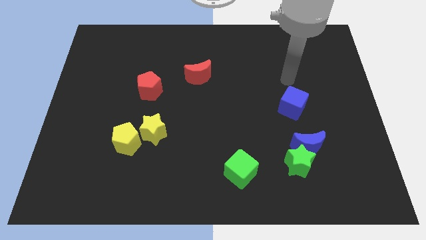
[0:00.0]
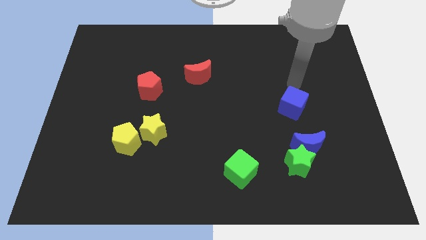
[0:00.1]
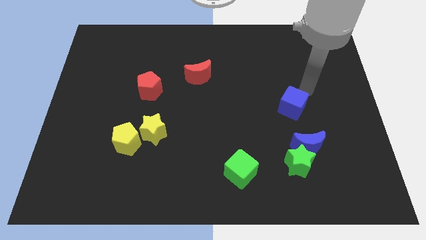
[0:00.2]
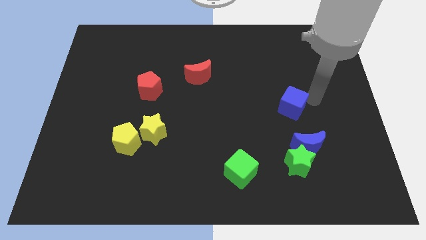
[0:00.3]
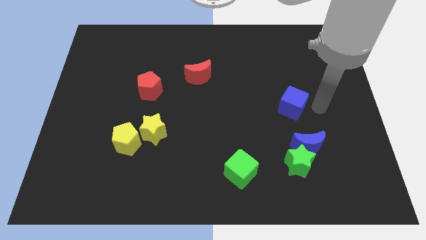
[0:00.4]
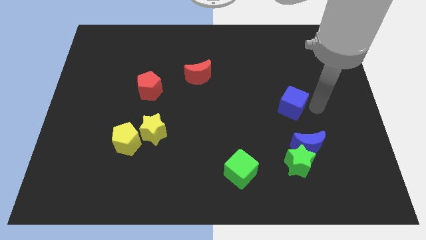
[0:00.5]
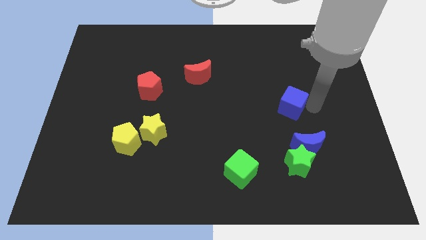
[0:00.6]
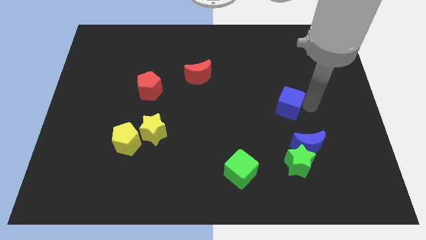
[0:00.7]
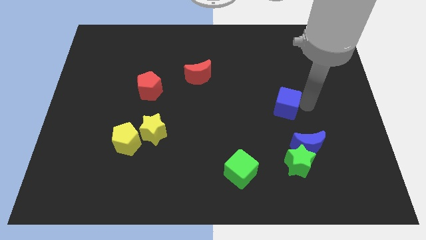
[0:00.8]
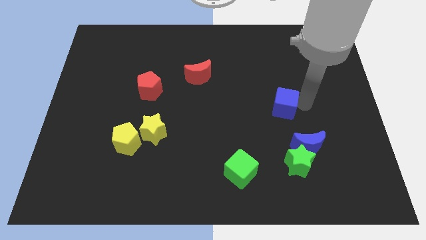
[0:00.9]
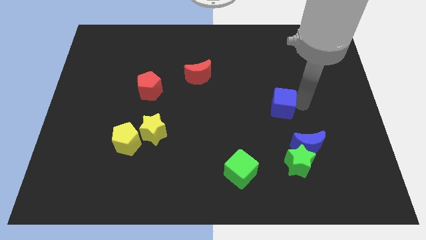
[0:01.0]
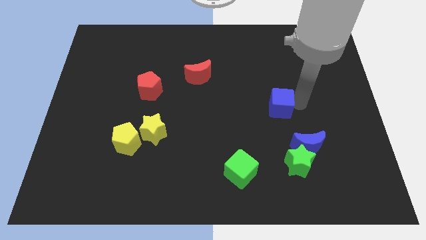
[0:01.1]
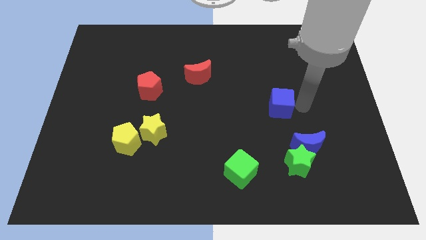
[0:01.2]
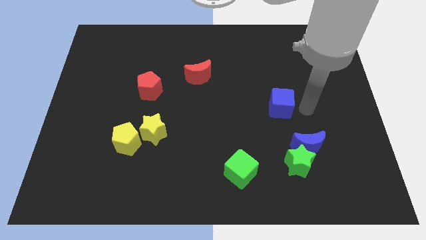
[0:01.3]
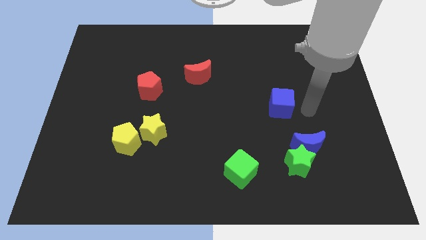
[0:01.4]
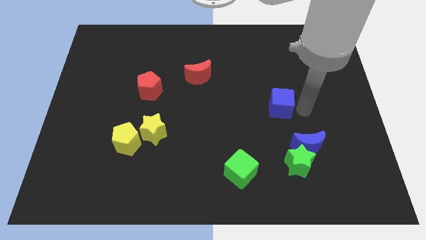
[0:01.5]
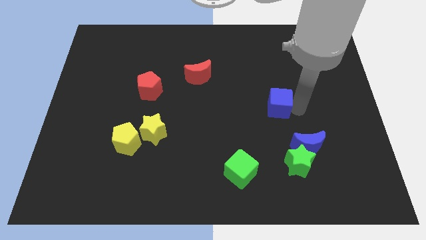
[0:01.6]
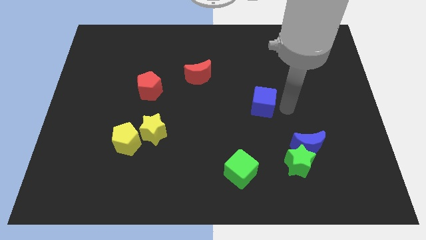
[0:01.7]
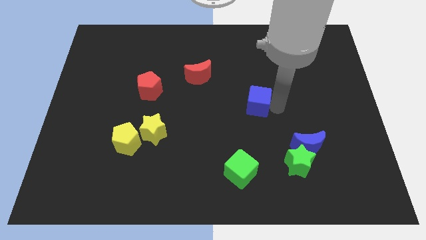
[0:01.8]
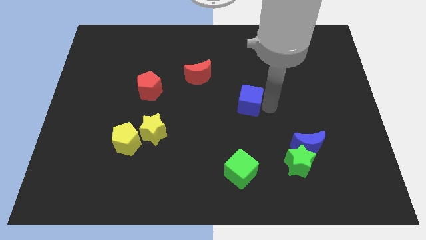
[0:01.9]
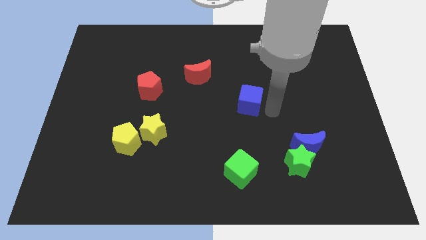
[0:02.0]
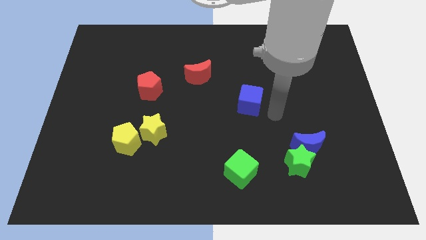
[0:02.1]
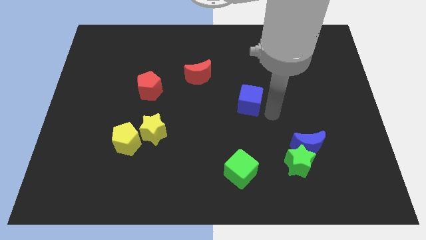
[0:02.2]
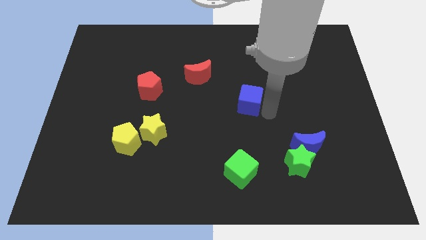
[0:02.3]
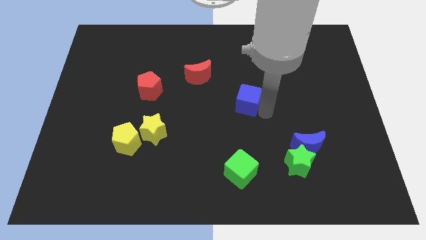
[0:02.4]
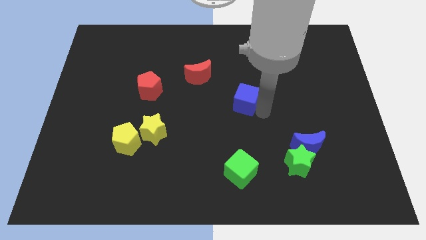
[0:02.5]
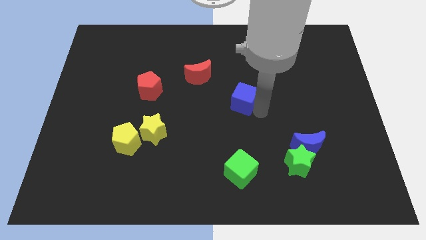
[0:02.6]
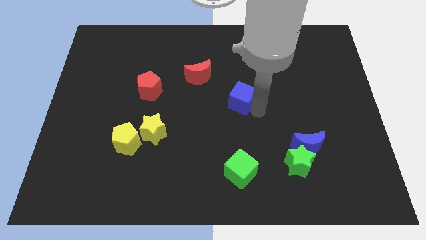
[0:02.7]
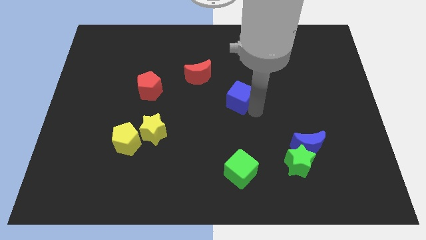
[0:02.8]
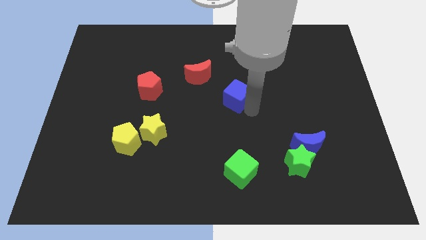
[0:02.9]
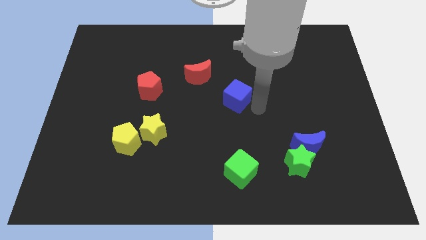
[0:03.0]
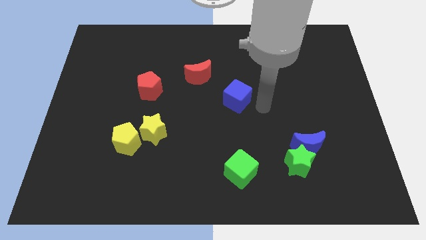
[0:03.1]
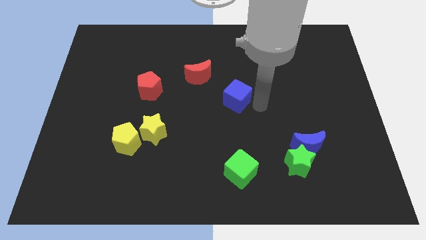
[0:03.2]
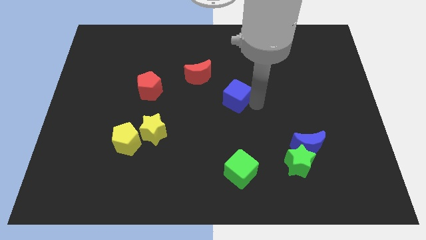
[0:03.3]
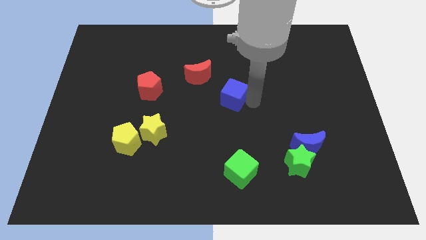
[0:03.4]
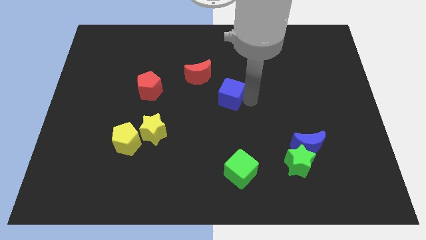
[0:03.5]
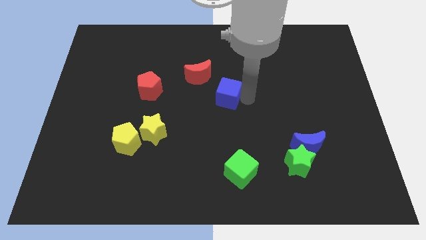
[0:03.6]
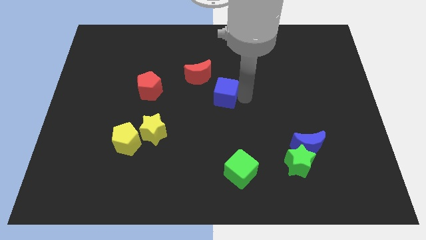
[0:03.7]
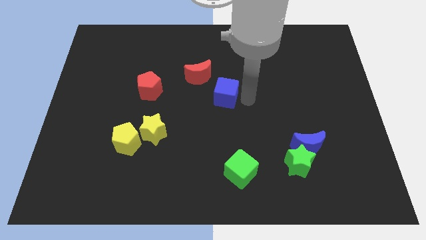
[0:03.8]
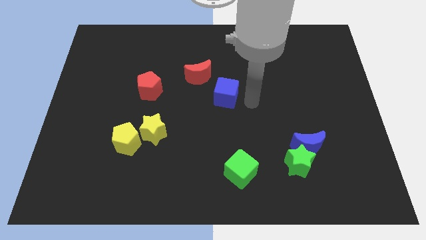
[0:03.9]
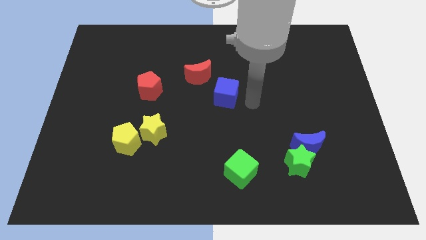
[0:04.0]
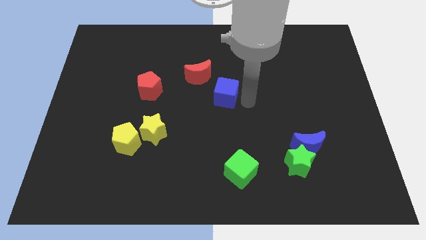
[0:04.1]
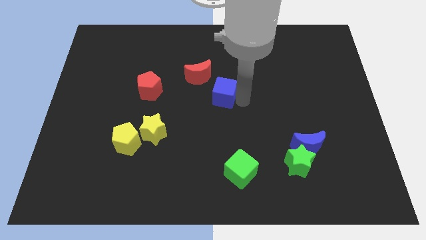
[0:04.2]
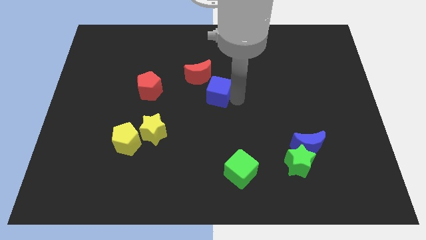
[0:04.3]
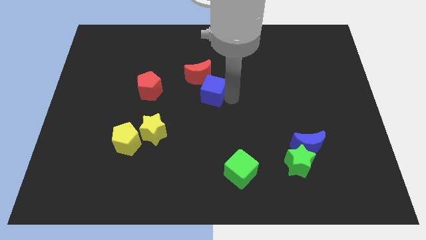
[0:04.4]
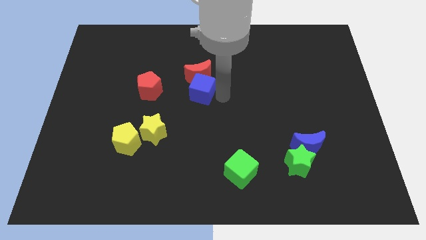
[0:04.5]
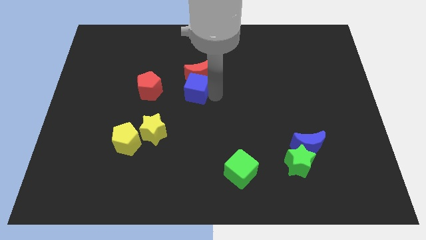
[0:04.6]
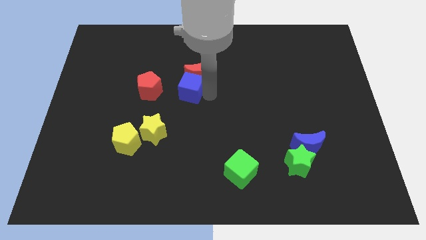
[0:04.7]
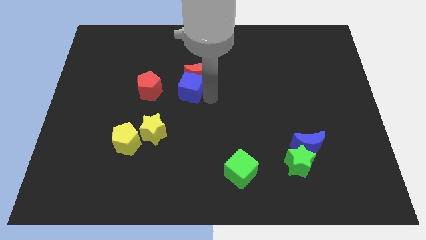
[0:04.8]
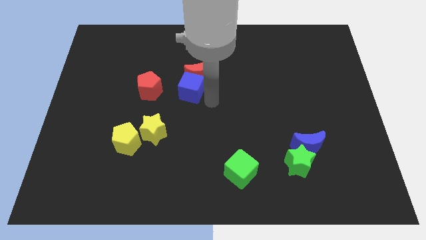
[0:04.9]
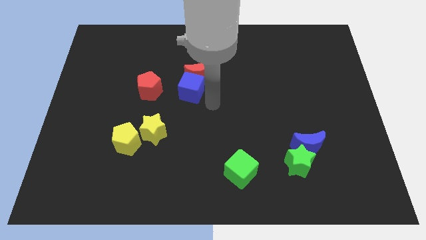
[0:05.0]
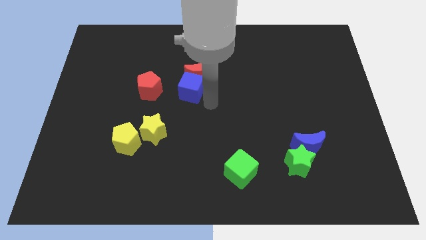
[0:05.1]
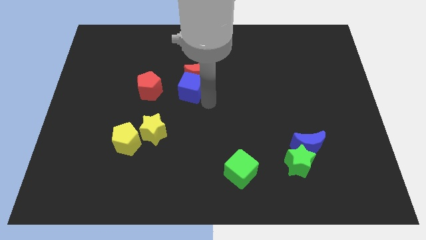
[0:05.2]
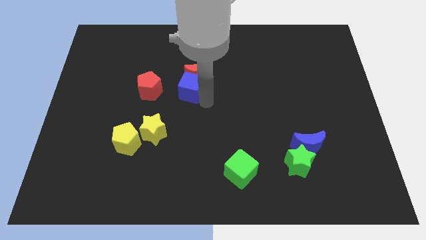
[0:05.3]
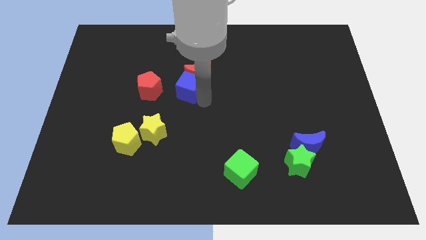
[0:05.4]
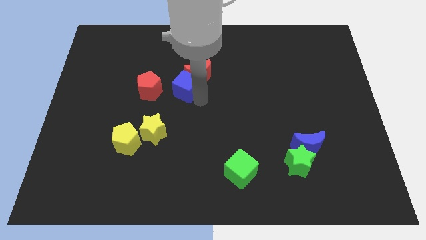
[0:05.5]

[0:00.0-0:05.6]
move the blue cube left of the red moon

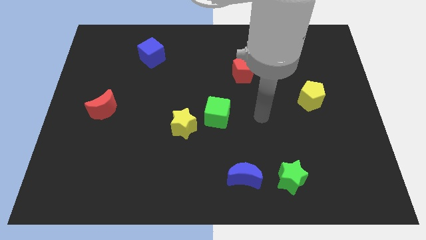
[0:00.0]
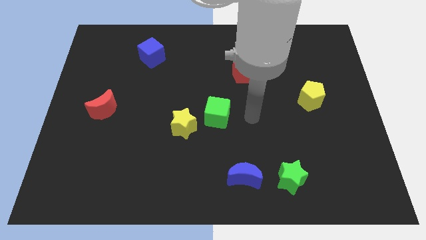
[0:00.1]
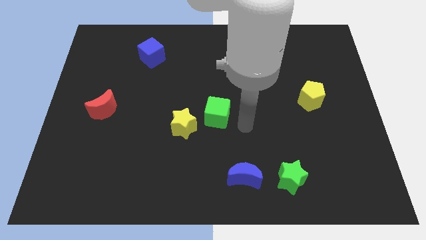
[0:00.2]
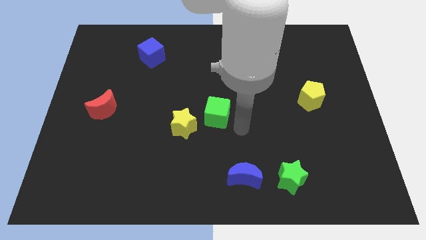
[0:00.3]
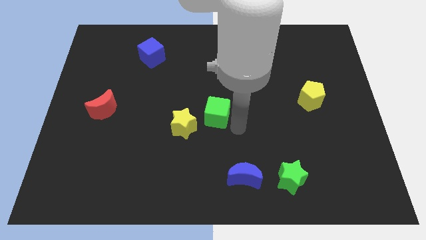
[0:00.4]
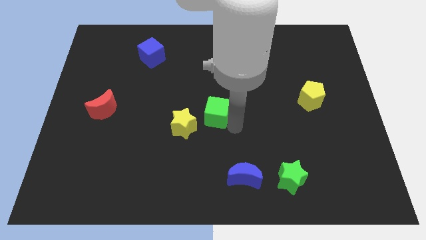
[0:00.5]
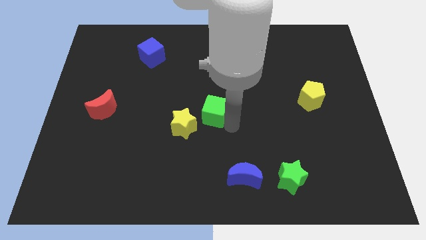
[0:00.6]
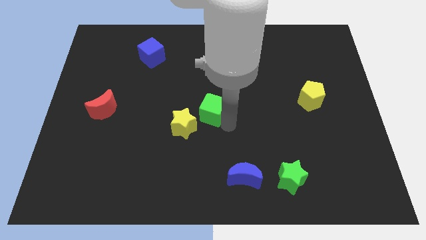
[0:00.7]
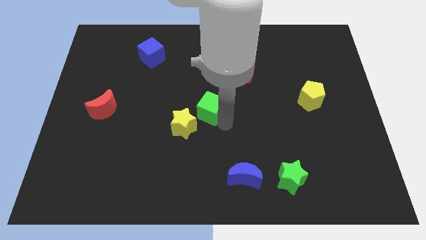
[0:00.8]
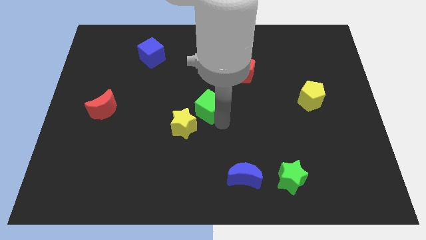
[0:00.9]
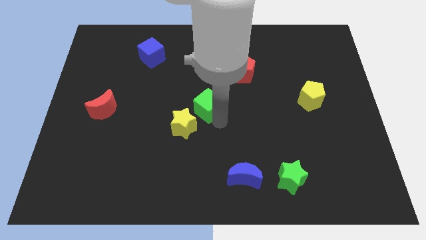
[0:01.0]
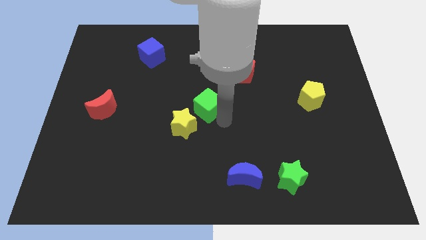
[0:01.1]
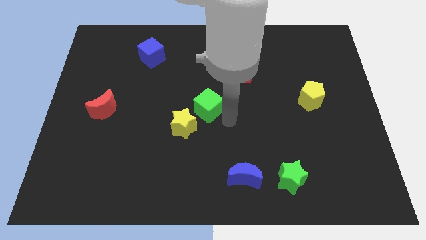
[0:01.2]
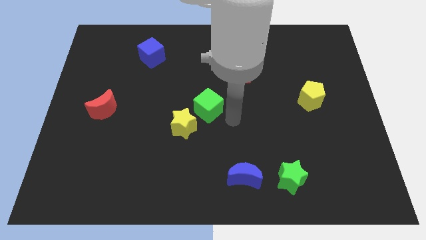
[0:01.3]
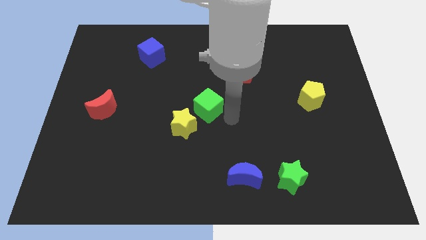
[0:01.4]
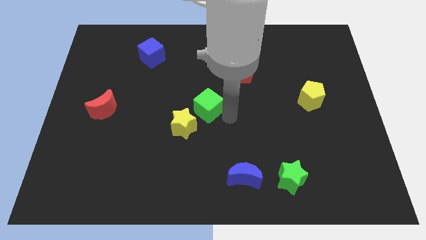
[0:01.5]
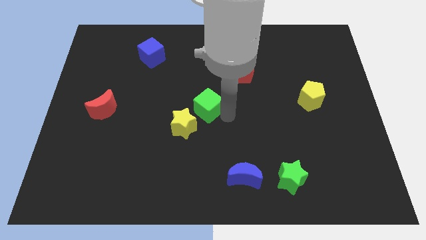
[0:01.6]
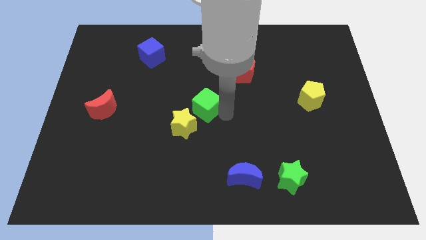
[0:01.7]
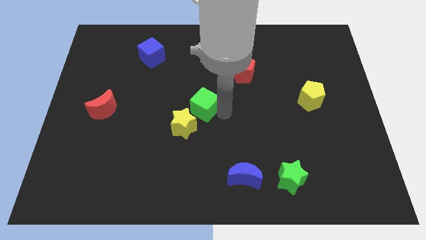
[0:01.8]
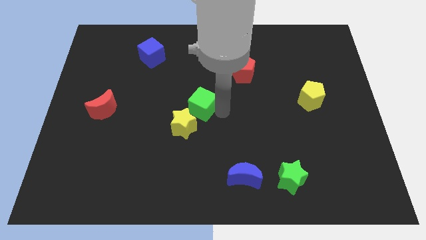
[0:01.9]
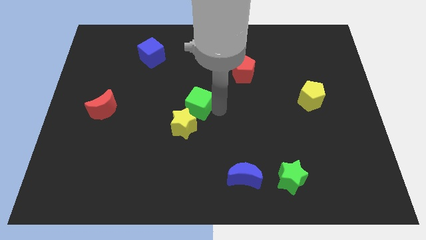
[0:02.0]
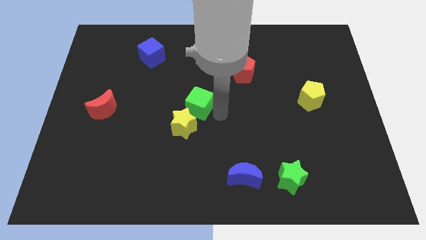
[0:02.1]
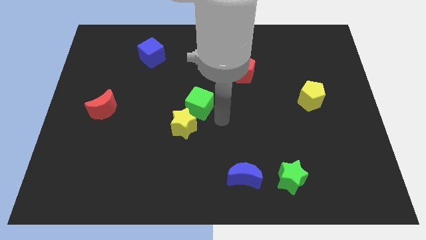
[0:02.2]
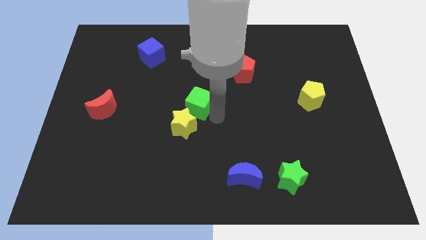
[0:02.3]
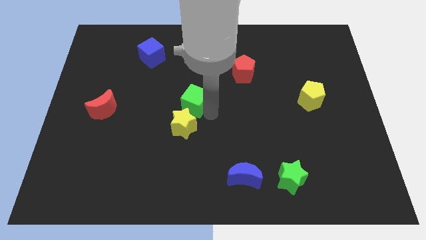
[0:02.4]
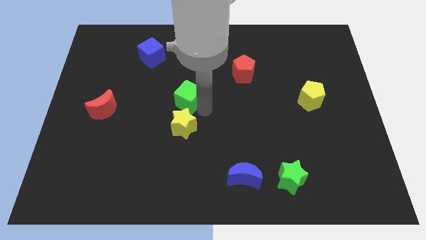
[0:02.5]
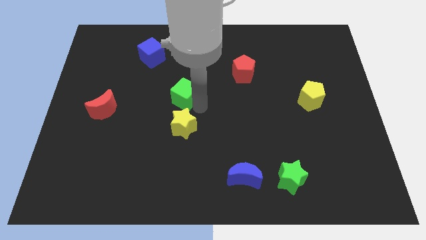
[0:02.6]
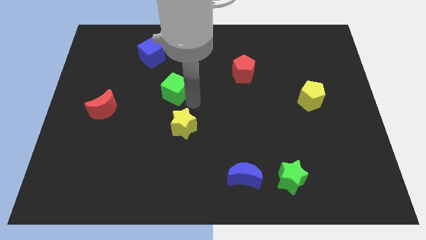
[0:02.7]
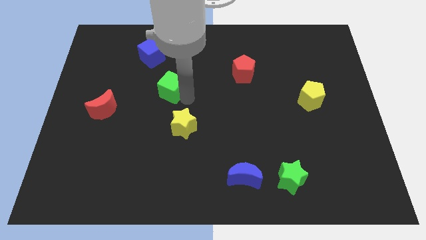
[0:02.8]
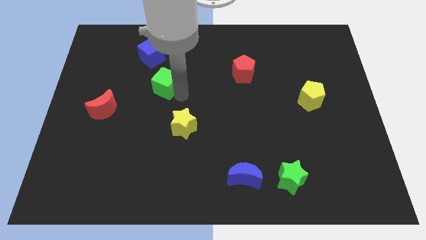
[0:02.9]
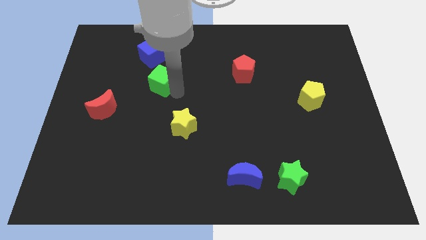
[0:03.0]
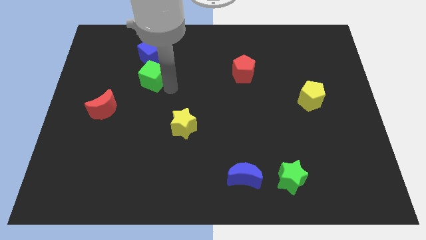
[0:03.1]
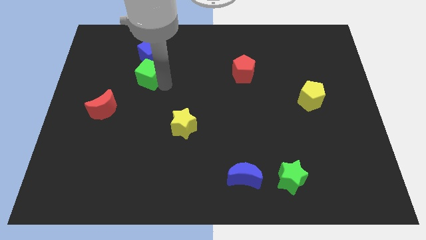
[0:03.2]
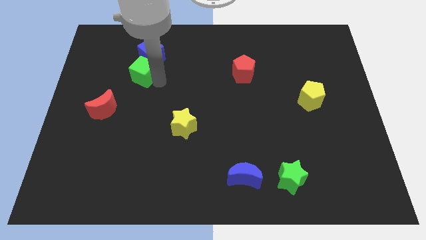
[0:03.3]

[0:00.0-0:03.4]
push the green cube diagonally down and to the left of the blue cube
